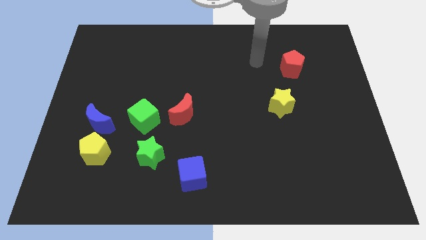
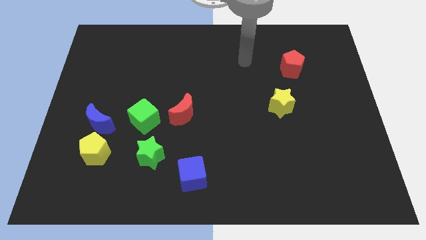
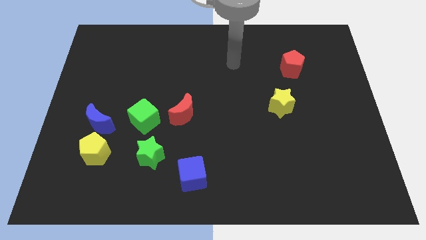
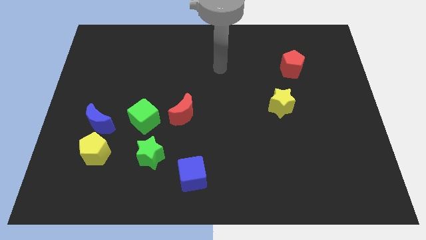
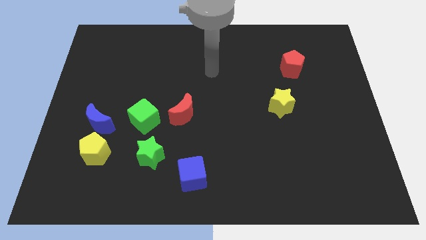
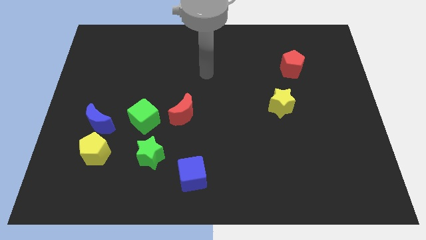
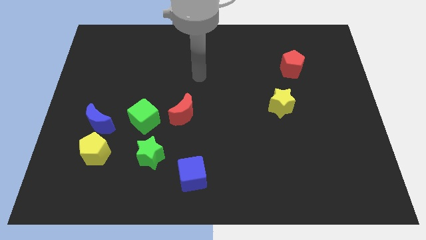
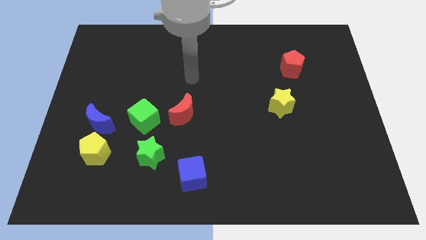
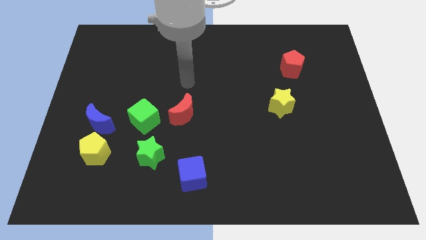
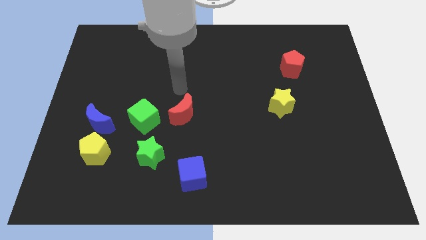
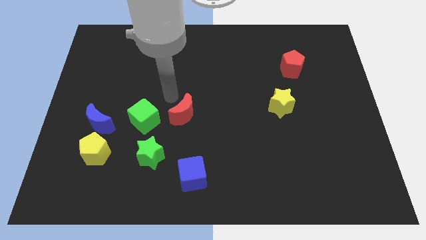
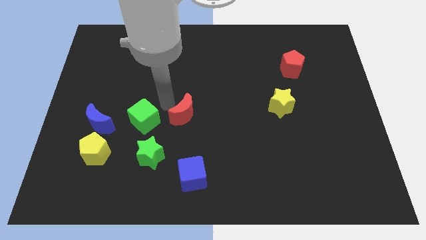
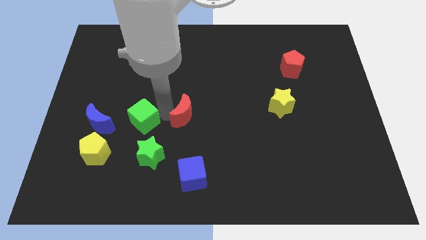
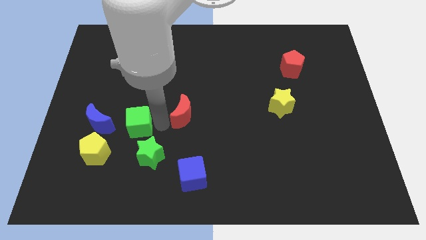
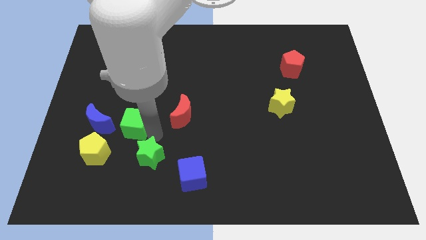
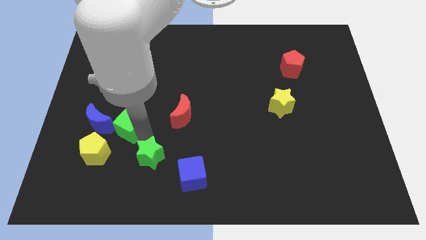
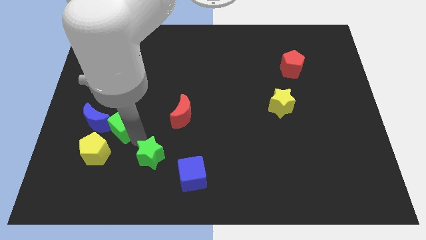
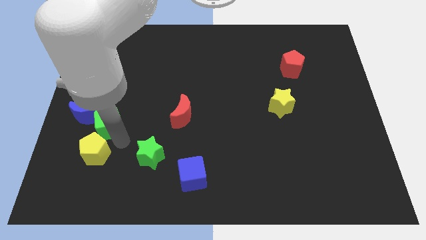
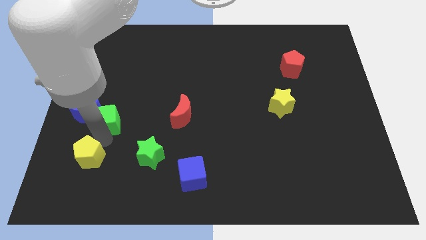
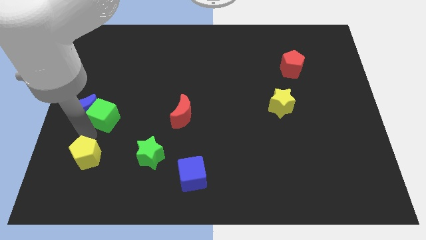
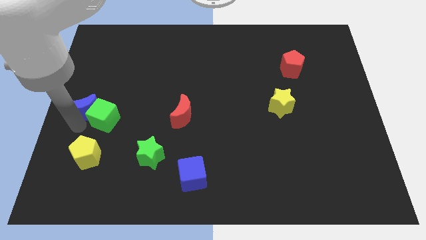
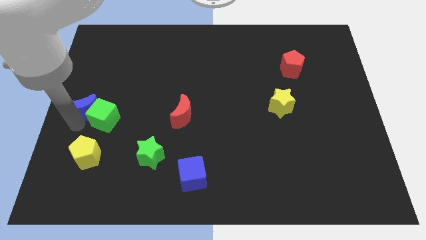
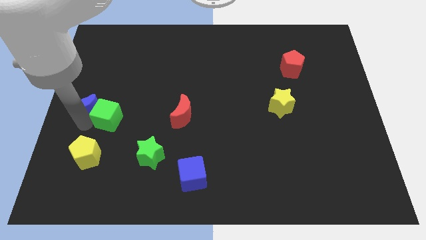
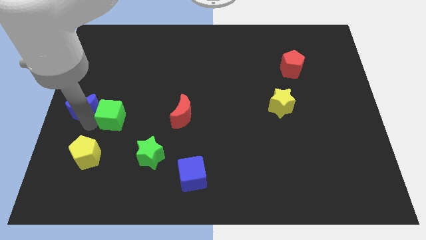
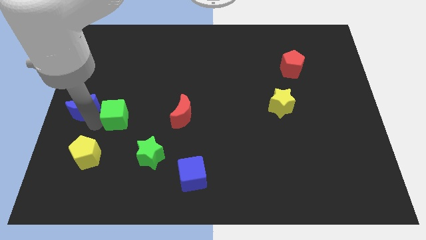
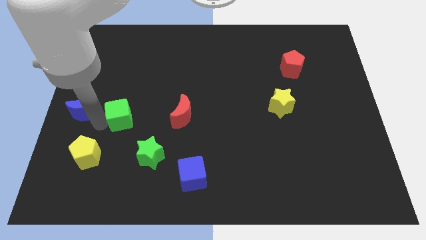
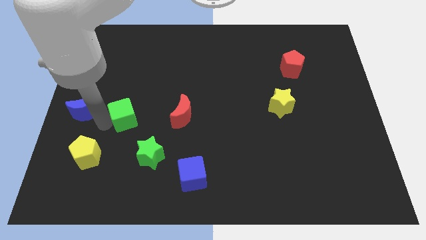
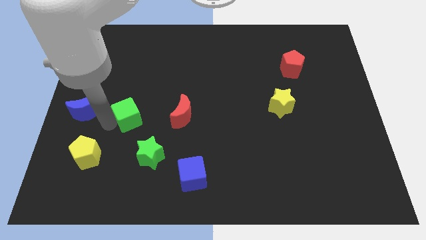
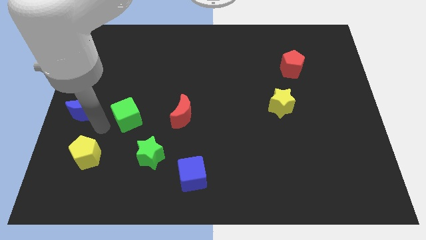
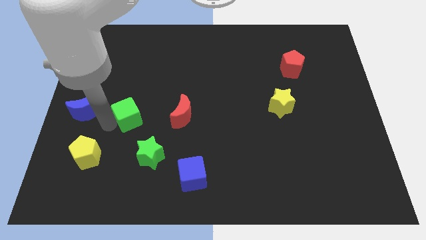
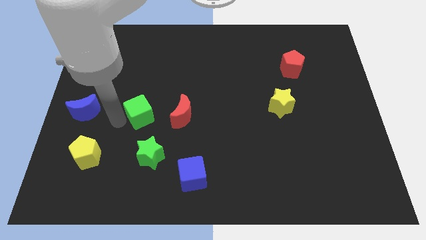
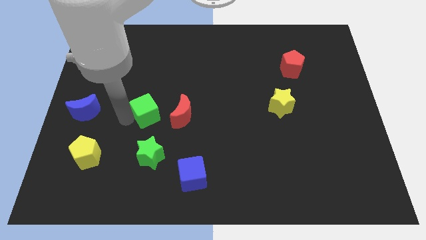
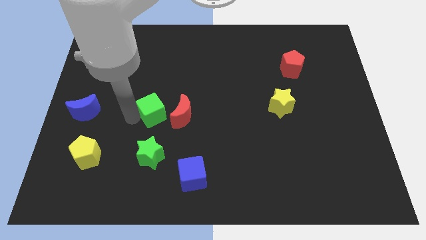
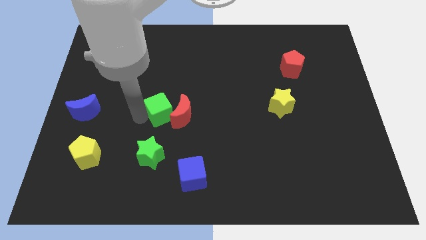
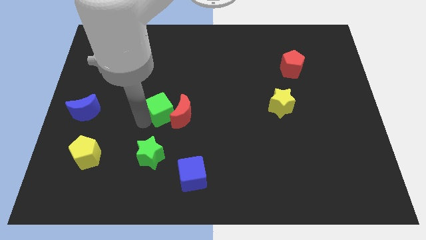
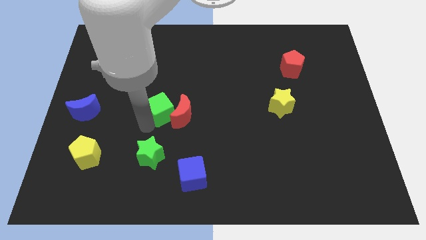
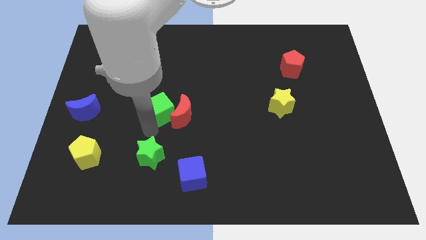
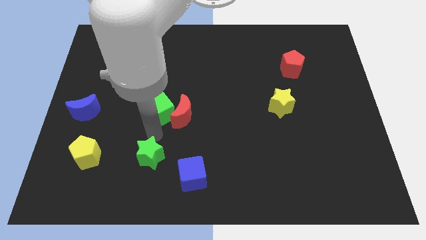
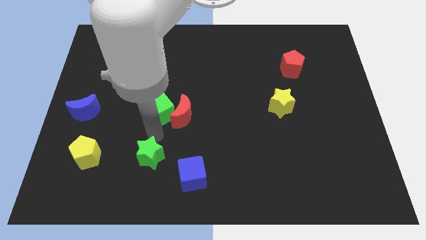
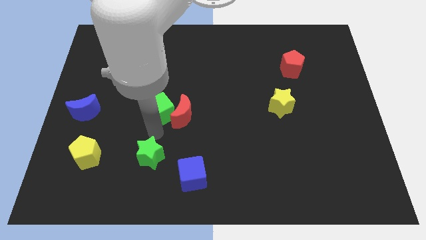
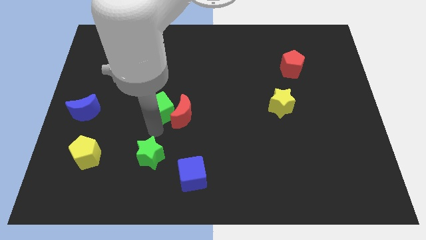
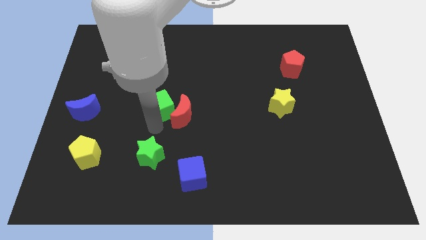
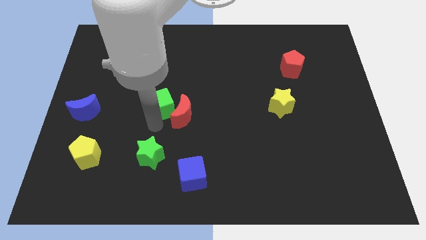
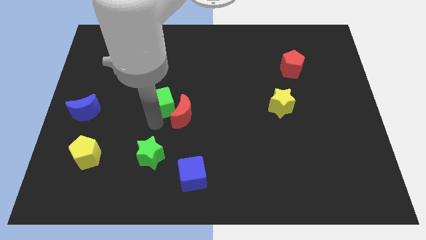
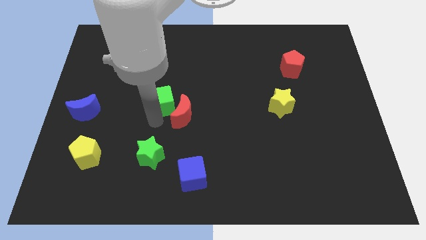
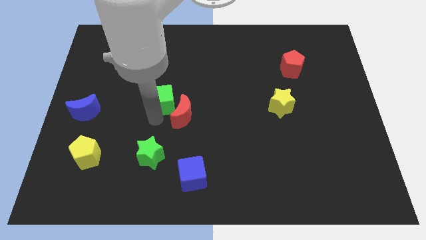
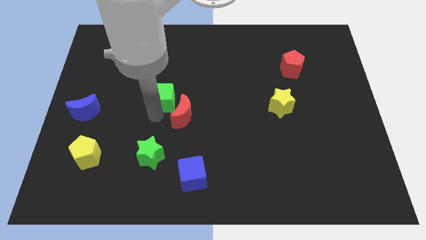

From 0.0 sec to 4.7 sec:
slightly push the green cube up and to the right

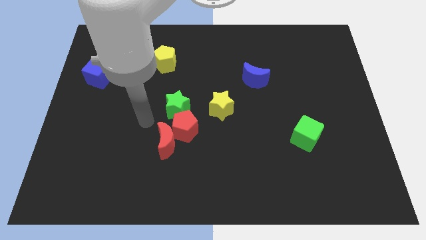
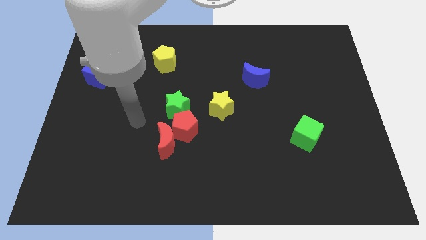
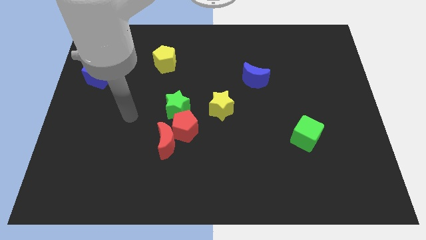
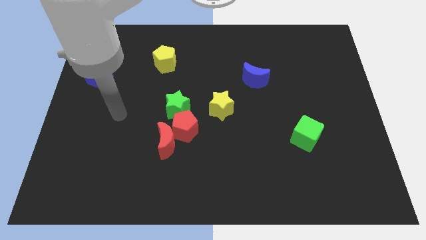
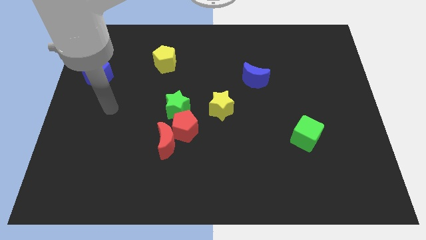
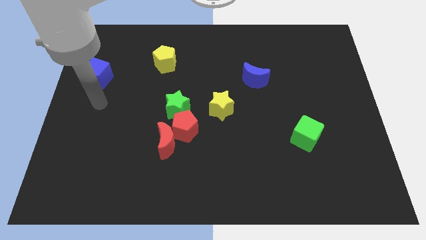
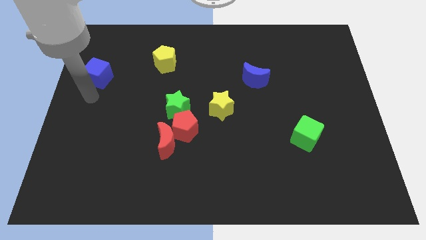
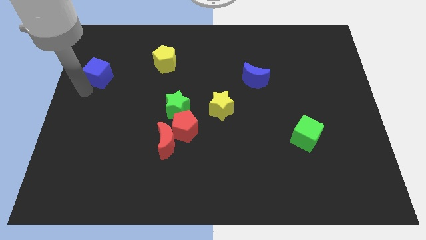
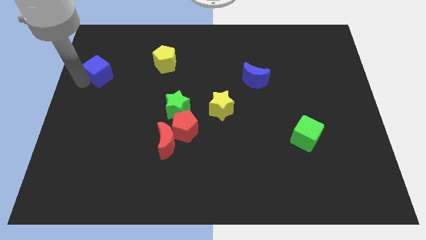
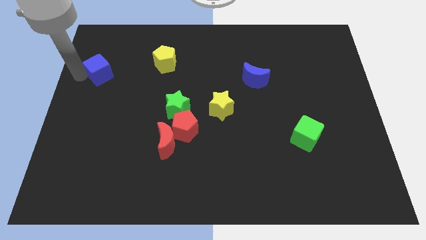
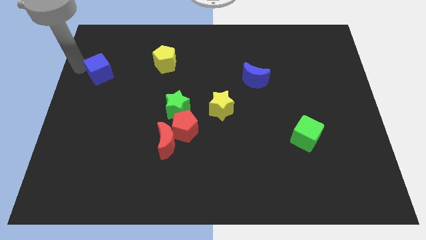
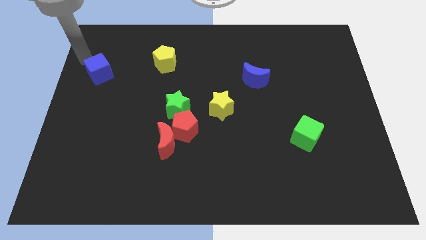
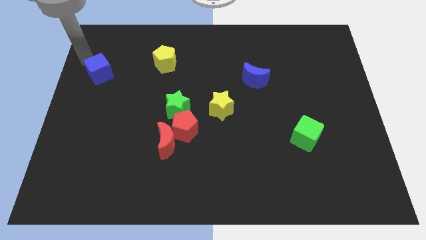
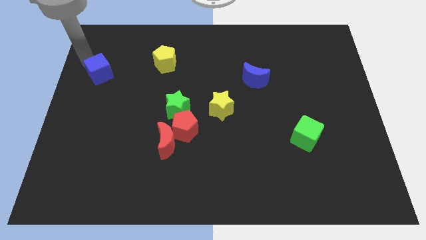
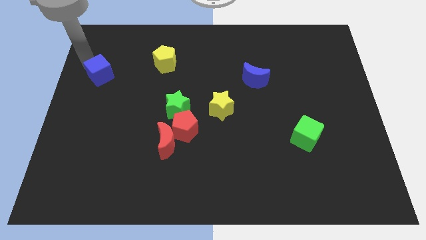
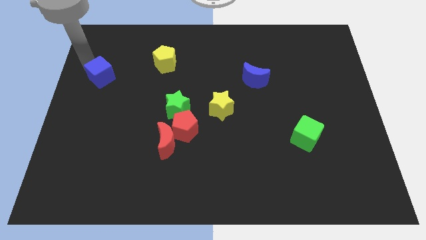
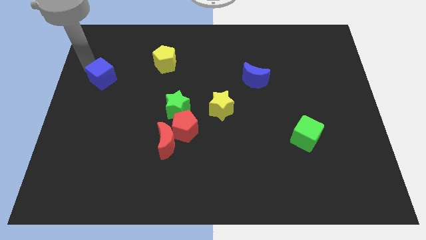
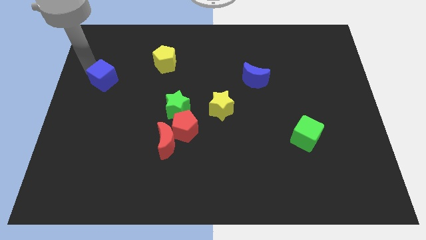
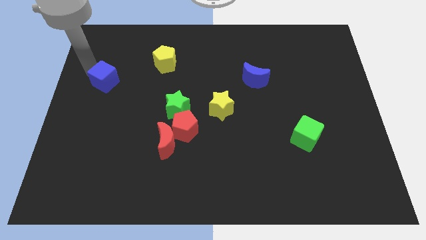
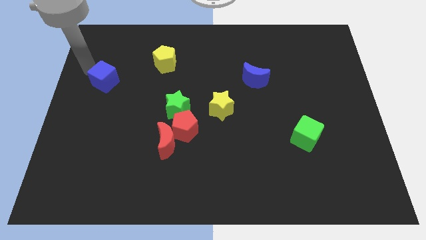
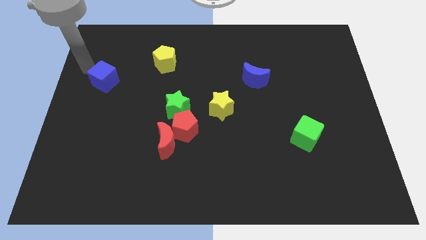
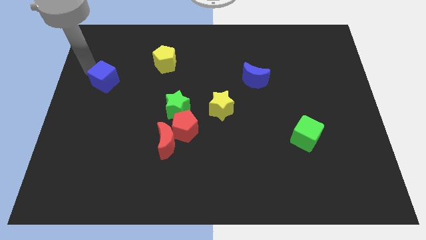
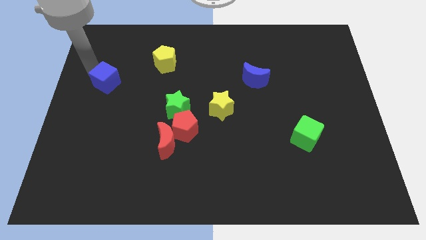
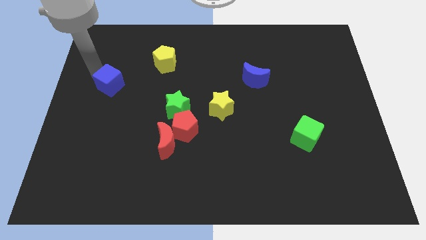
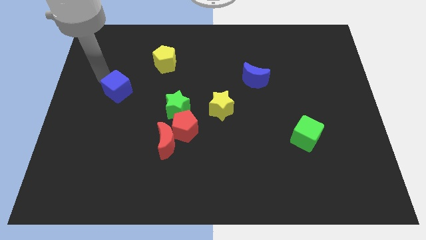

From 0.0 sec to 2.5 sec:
slightly push the blue cube down and then right

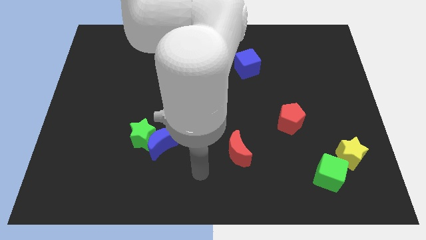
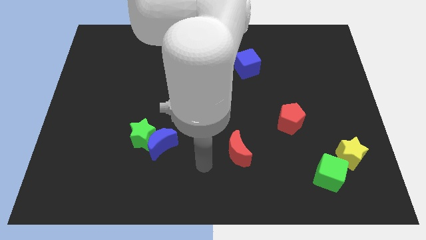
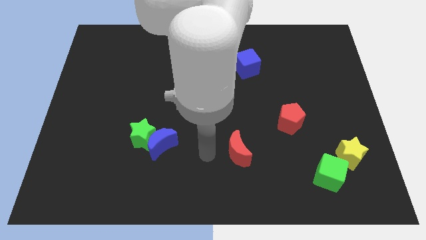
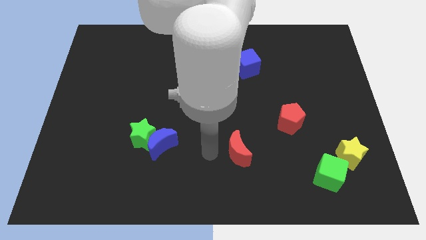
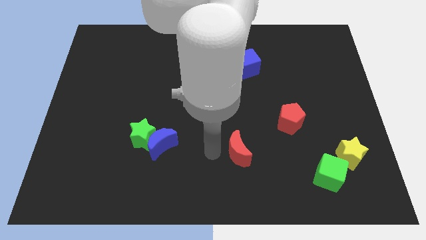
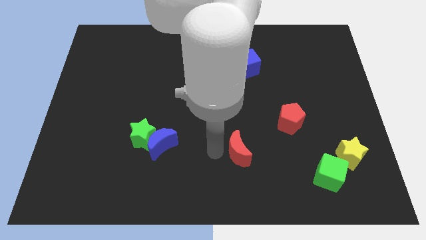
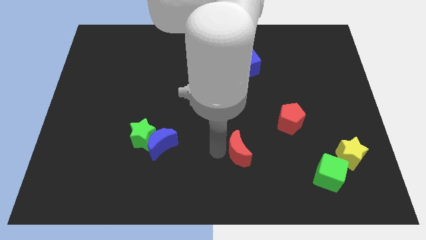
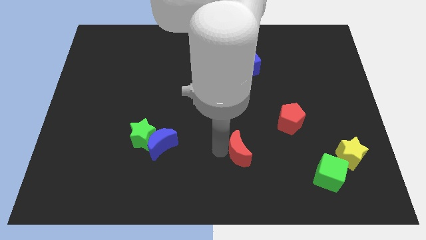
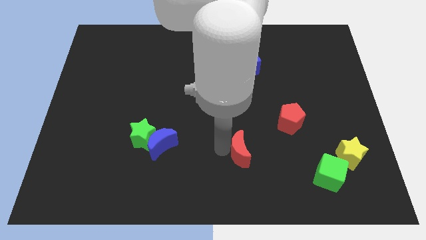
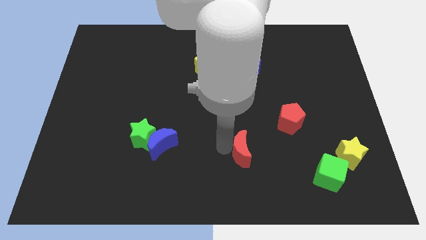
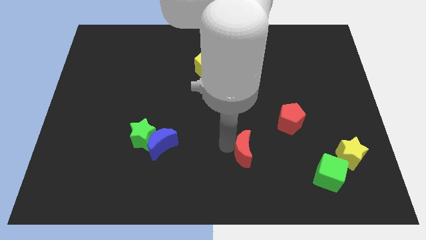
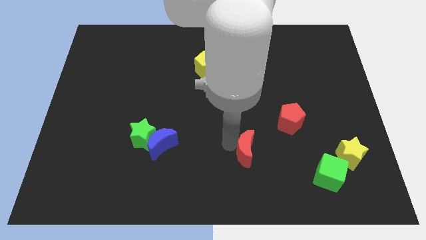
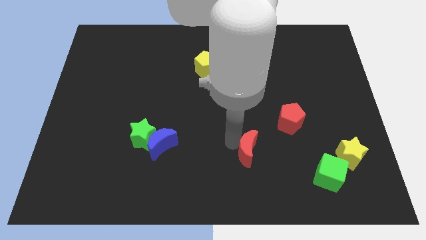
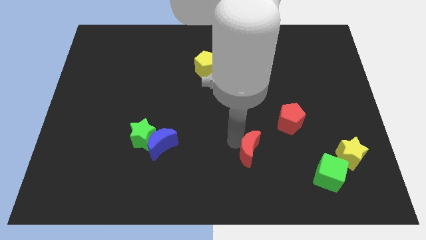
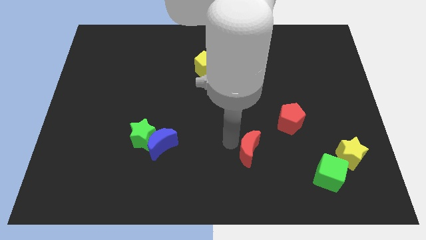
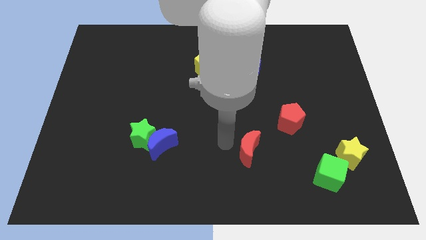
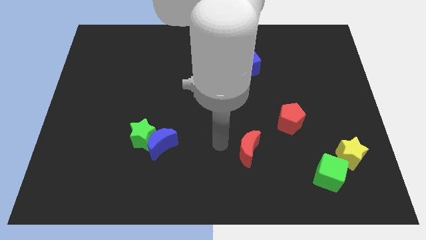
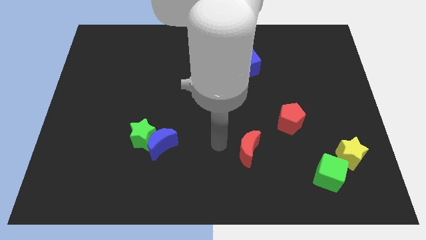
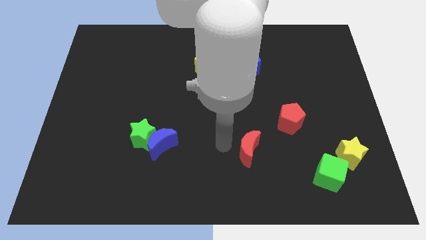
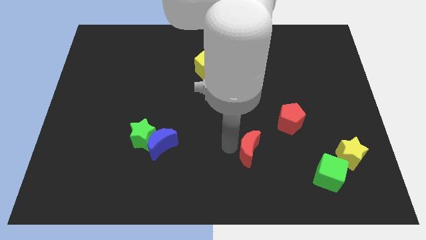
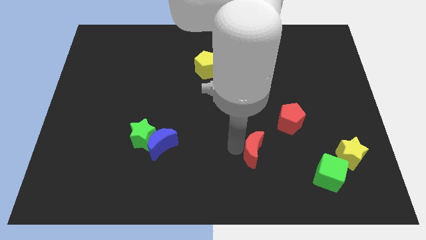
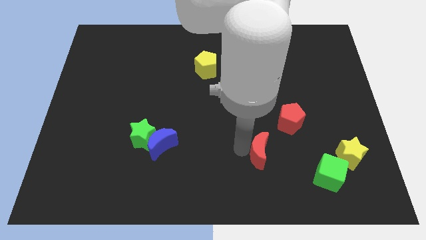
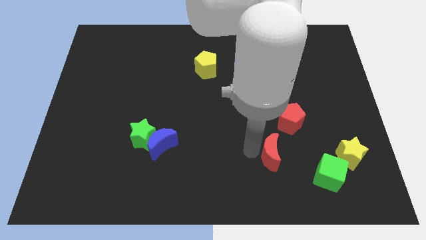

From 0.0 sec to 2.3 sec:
move the red moon slightly to the right
